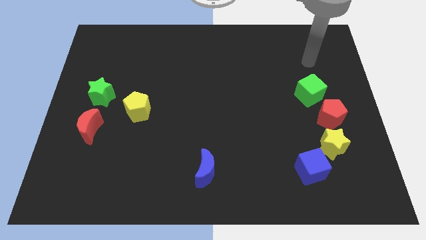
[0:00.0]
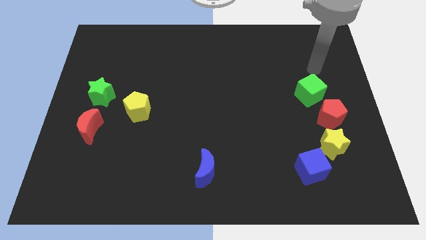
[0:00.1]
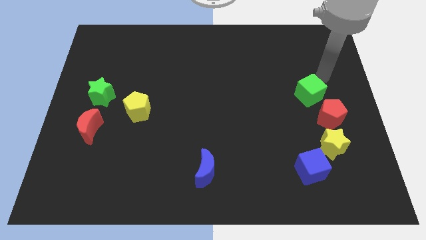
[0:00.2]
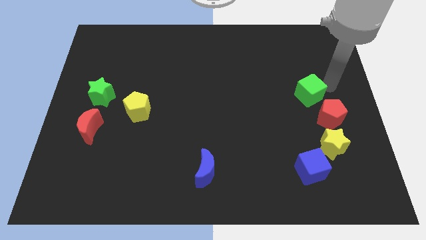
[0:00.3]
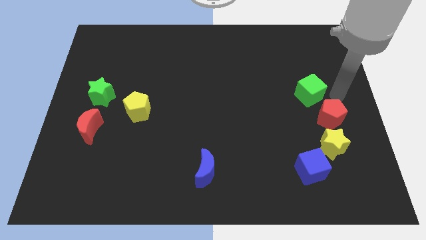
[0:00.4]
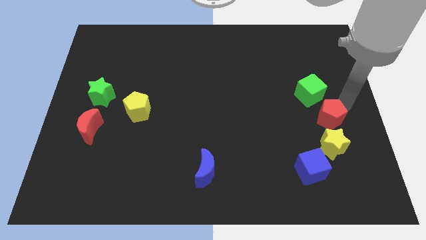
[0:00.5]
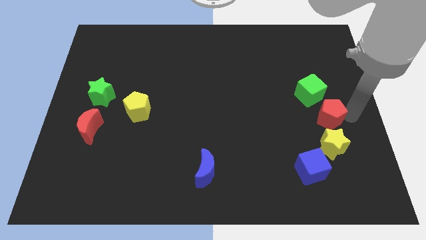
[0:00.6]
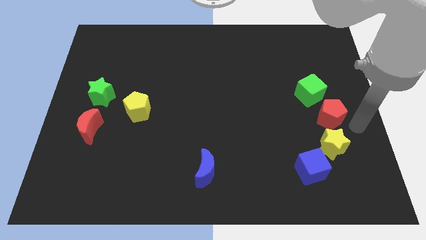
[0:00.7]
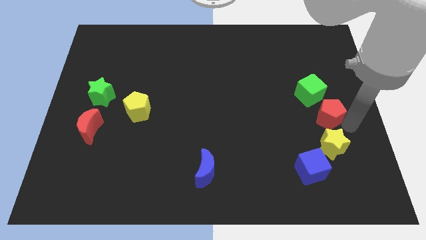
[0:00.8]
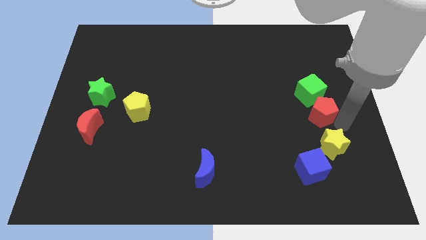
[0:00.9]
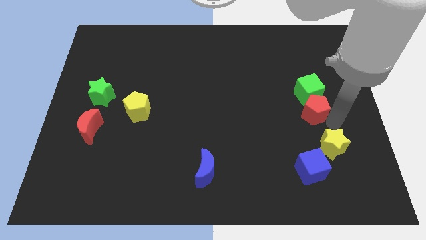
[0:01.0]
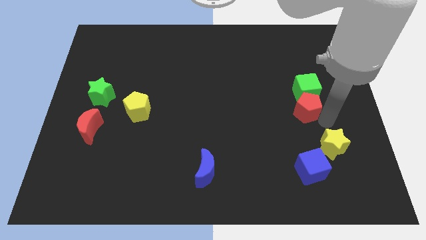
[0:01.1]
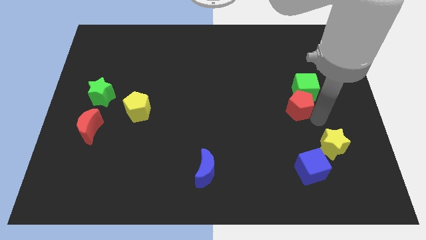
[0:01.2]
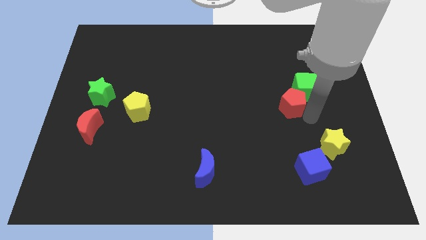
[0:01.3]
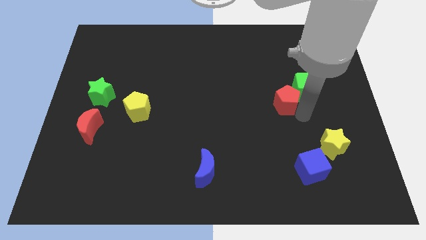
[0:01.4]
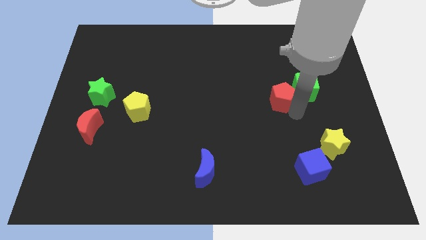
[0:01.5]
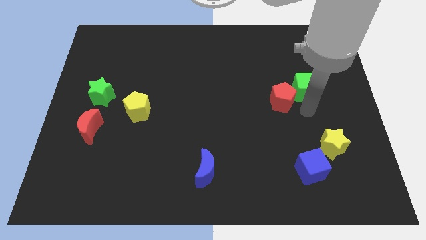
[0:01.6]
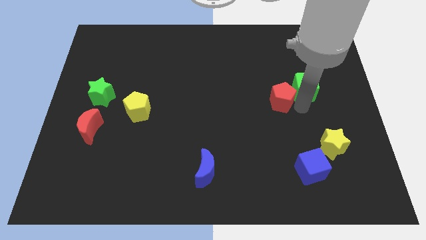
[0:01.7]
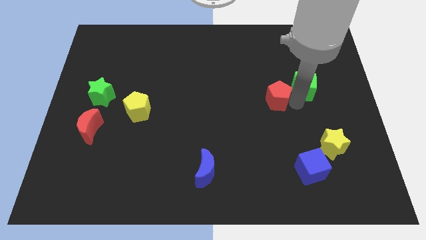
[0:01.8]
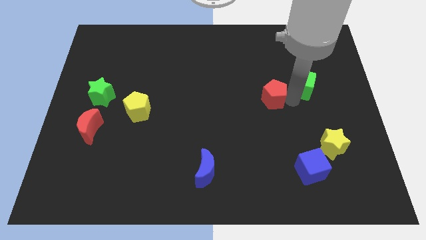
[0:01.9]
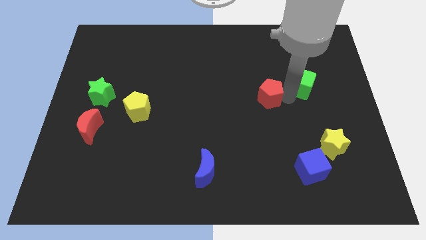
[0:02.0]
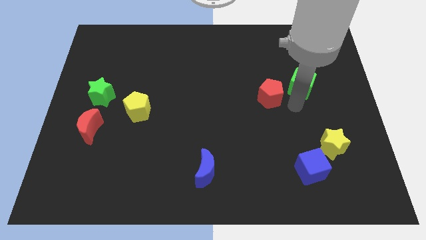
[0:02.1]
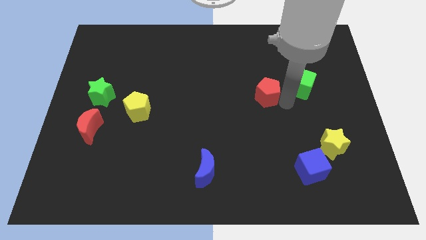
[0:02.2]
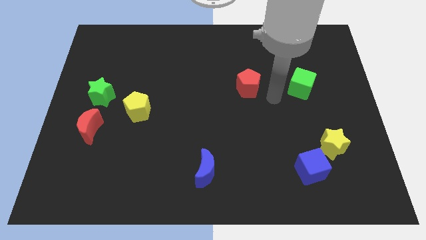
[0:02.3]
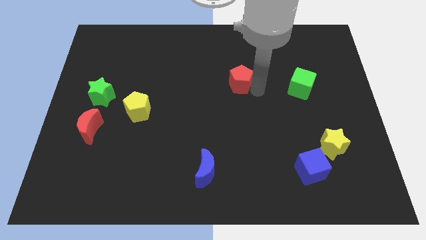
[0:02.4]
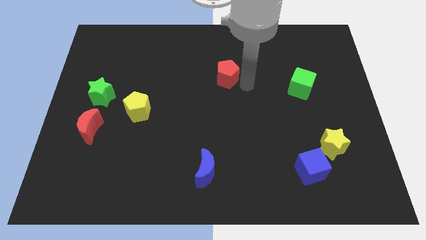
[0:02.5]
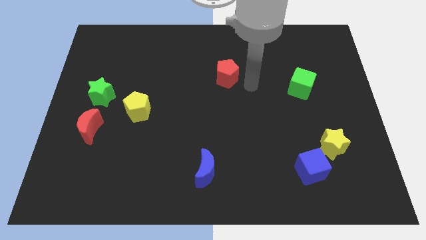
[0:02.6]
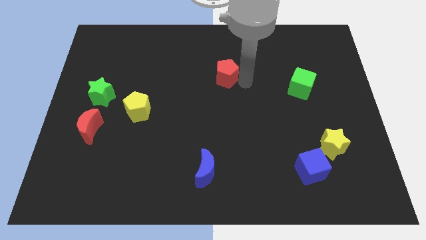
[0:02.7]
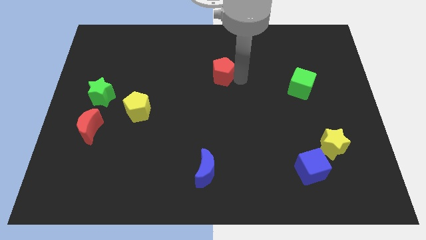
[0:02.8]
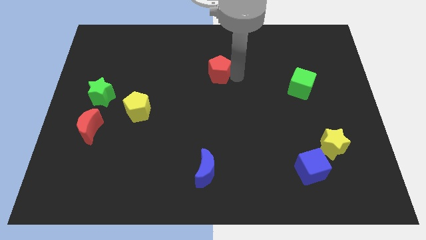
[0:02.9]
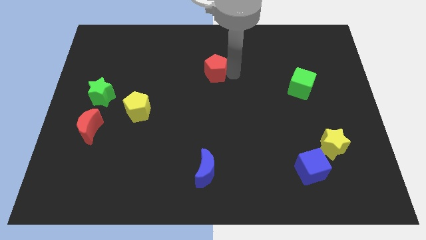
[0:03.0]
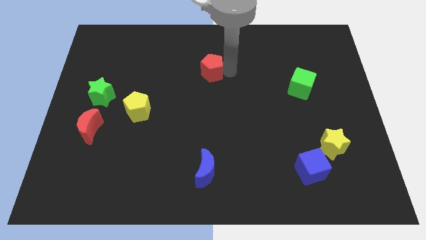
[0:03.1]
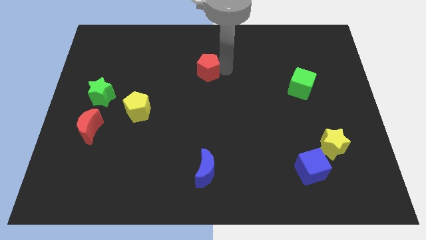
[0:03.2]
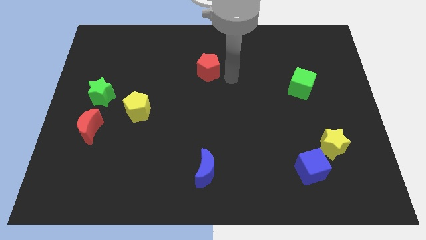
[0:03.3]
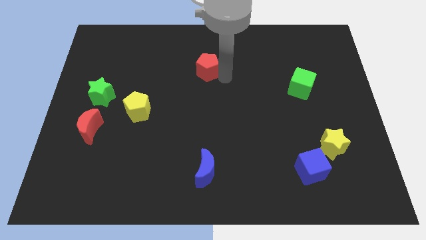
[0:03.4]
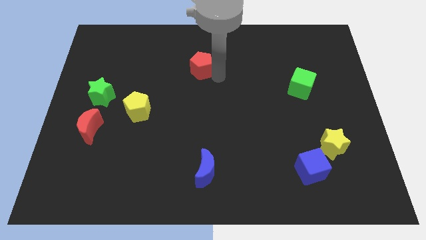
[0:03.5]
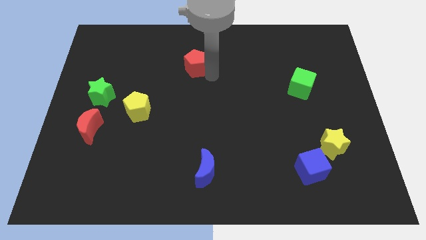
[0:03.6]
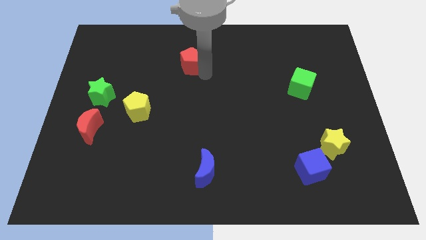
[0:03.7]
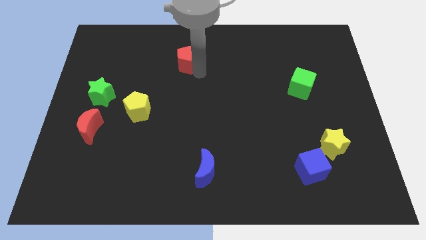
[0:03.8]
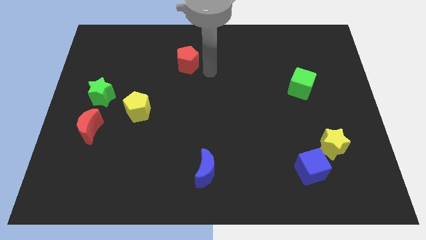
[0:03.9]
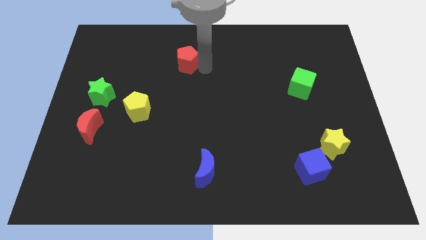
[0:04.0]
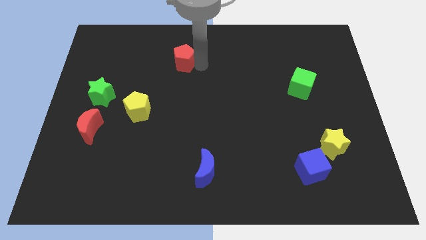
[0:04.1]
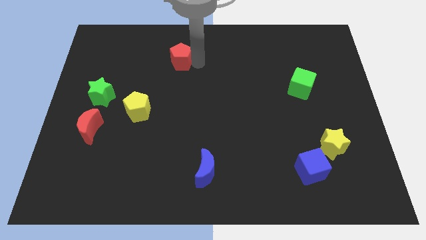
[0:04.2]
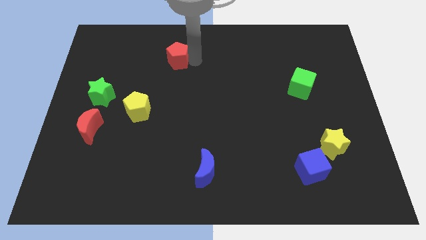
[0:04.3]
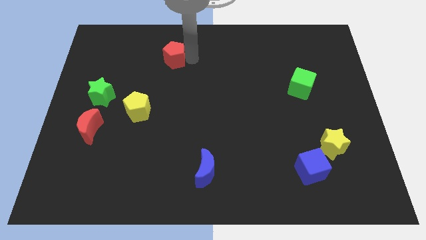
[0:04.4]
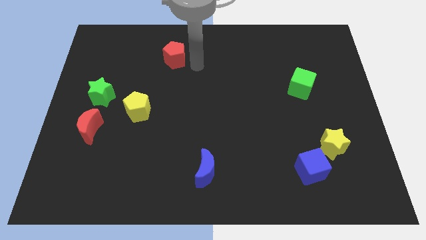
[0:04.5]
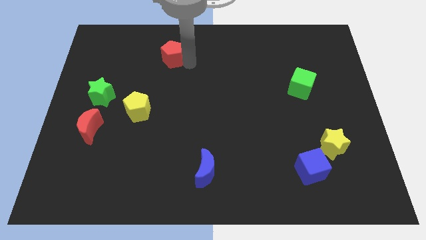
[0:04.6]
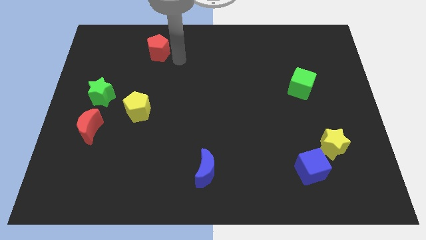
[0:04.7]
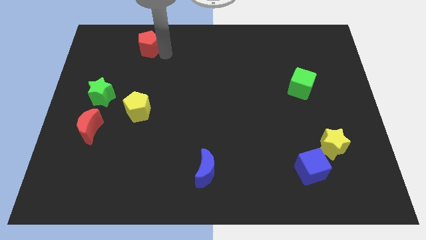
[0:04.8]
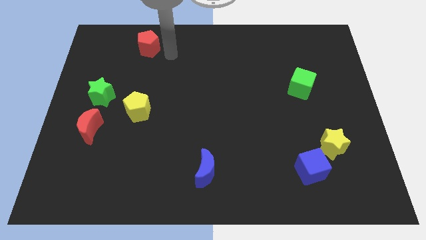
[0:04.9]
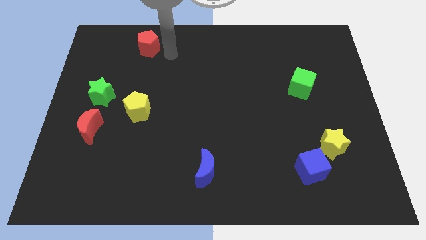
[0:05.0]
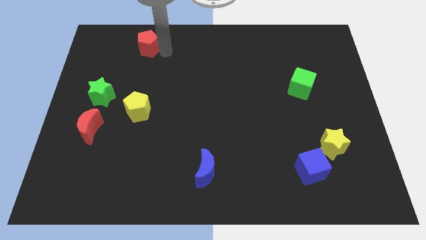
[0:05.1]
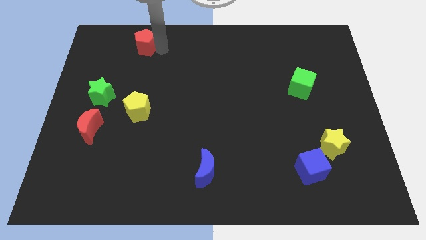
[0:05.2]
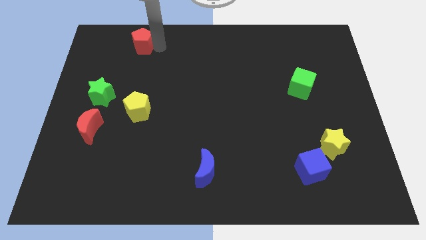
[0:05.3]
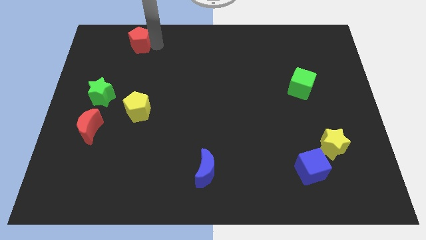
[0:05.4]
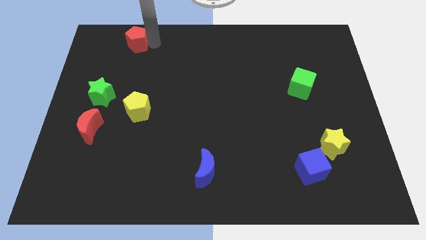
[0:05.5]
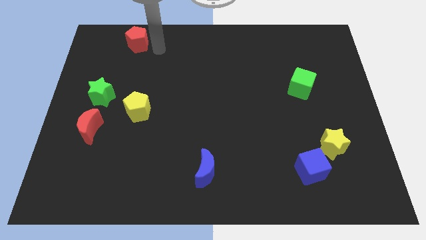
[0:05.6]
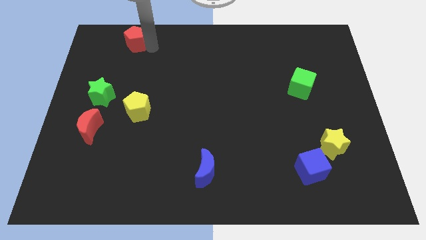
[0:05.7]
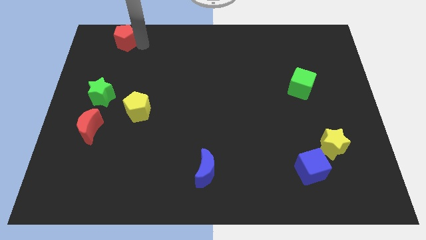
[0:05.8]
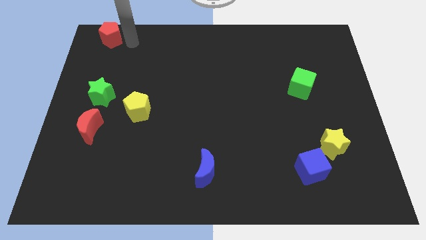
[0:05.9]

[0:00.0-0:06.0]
put the red pentagon to the top left

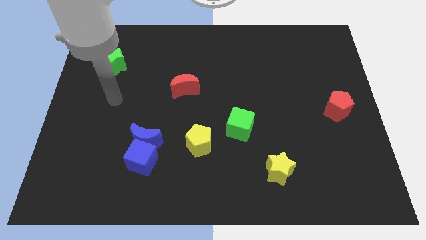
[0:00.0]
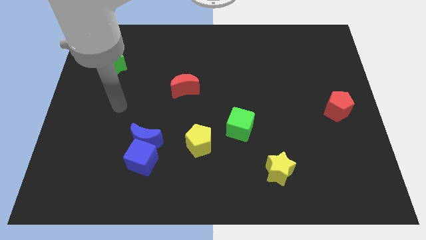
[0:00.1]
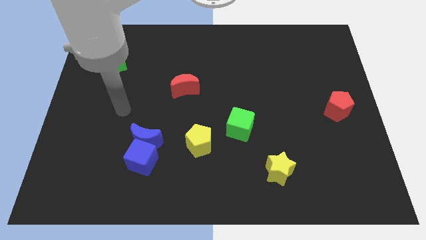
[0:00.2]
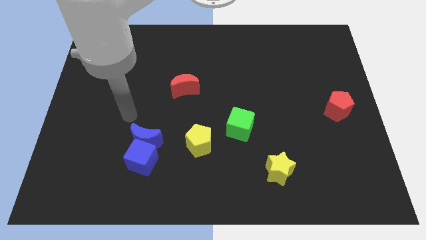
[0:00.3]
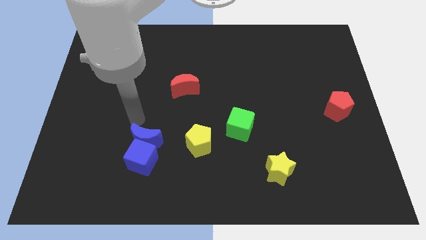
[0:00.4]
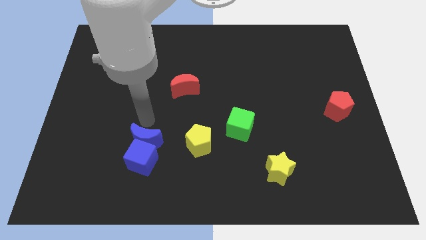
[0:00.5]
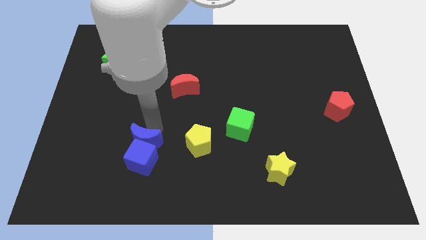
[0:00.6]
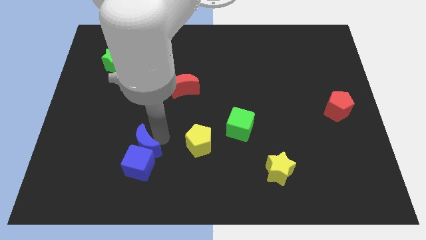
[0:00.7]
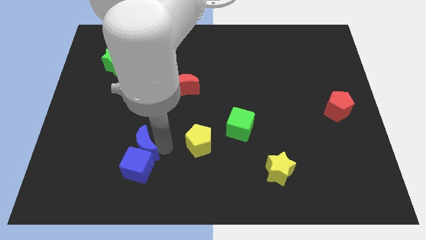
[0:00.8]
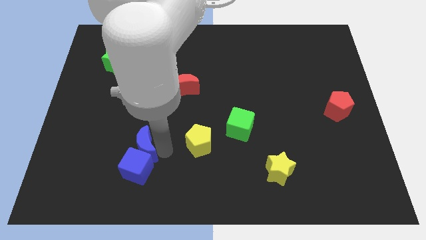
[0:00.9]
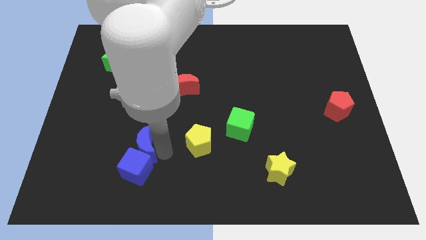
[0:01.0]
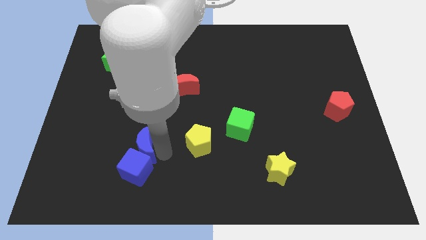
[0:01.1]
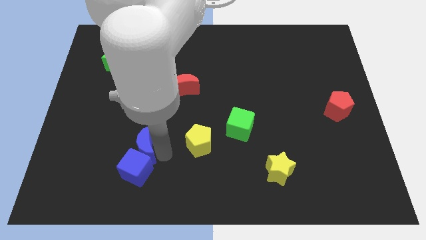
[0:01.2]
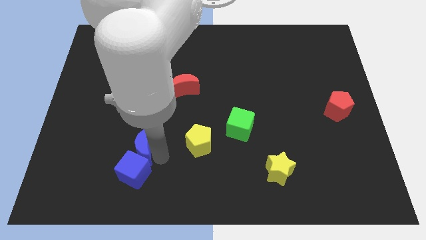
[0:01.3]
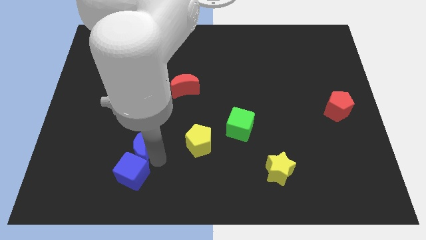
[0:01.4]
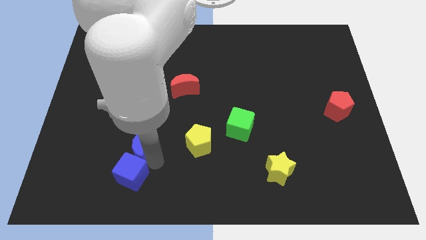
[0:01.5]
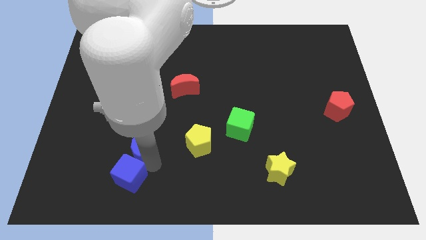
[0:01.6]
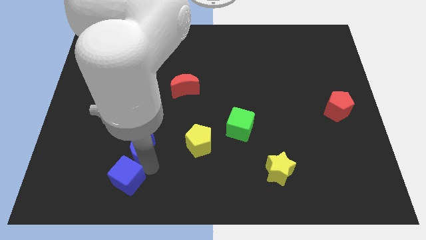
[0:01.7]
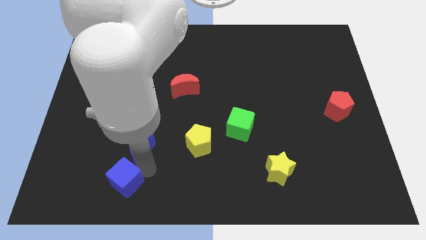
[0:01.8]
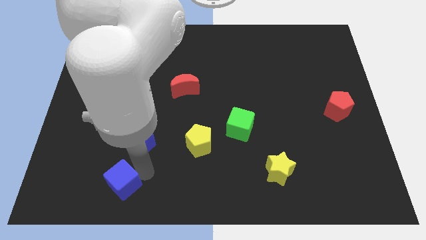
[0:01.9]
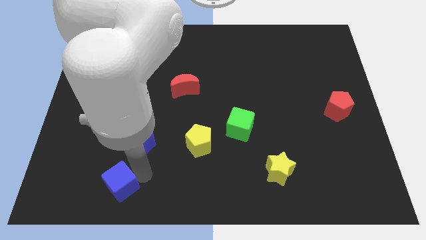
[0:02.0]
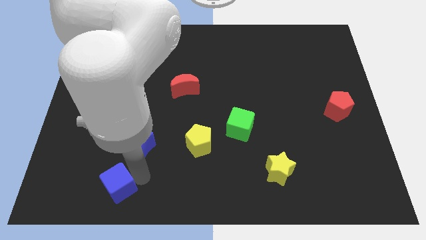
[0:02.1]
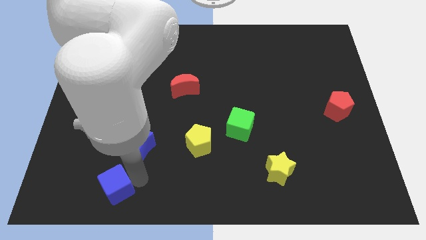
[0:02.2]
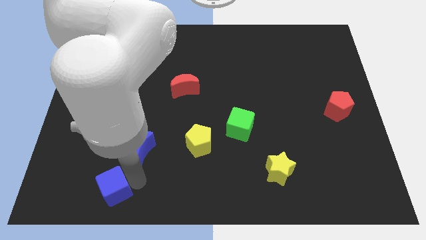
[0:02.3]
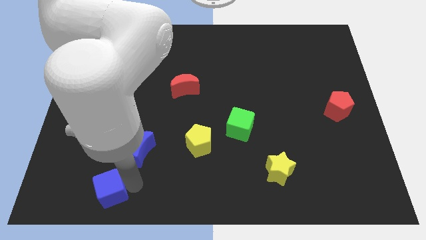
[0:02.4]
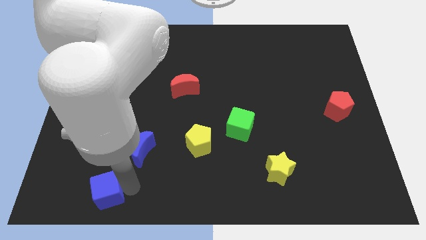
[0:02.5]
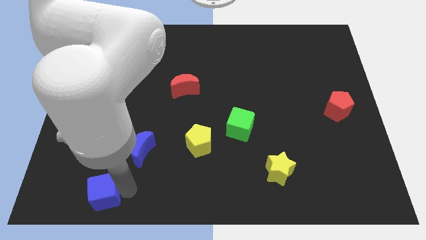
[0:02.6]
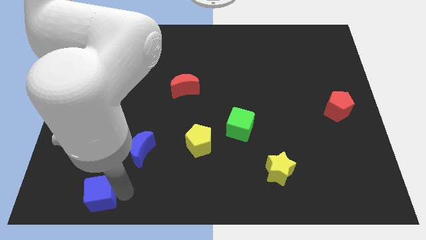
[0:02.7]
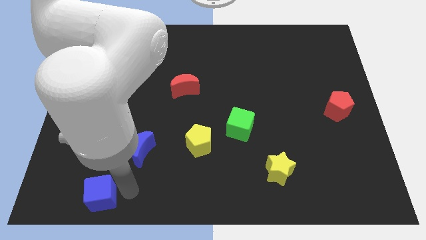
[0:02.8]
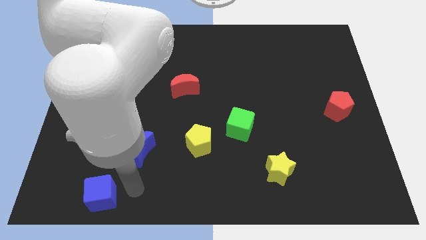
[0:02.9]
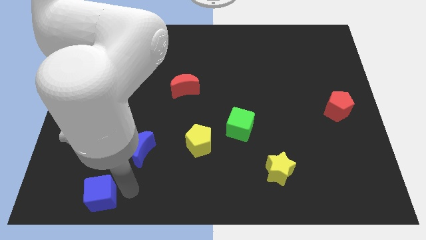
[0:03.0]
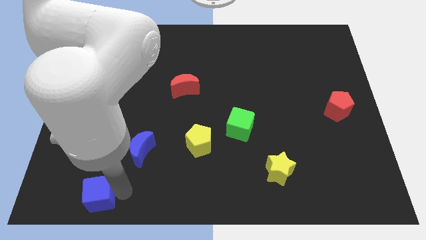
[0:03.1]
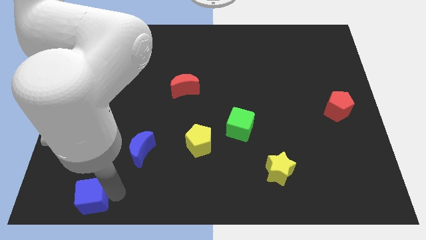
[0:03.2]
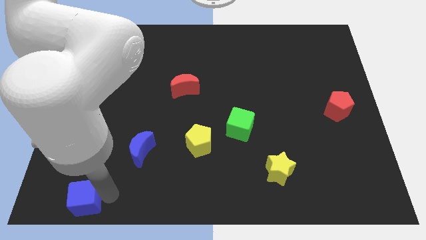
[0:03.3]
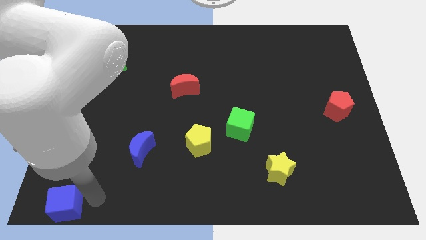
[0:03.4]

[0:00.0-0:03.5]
push the blue cube to the bottom left
